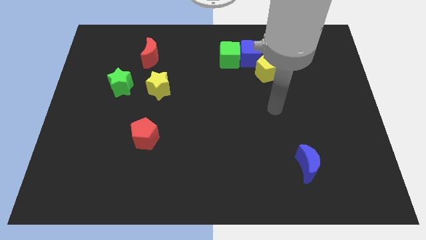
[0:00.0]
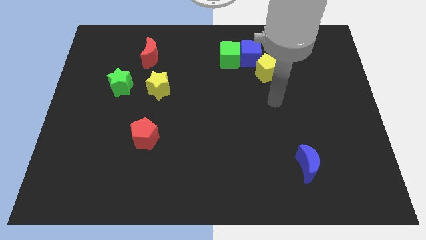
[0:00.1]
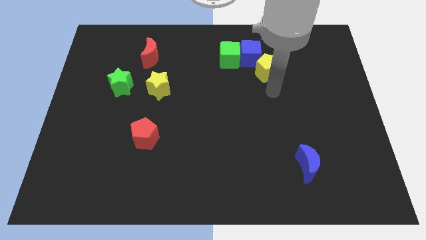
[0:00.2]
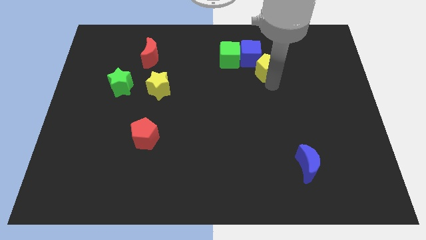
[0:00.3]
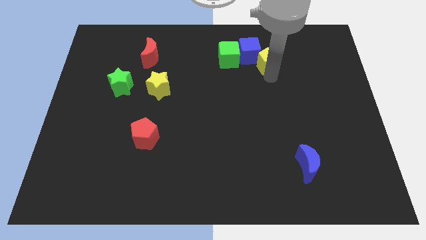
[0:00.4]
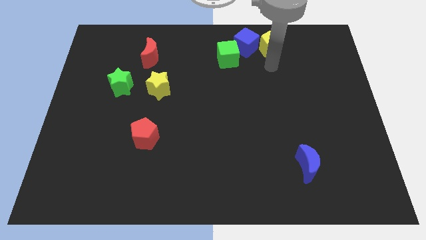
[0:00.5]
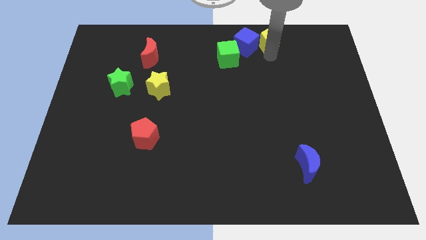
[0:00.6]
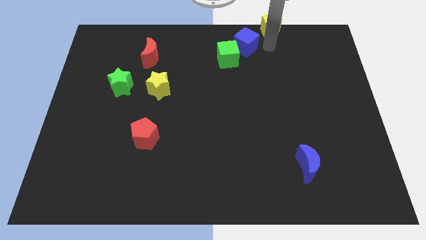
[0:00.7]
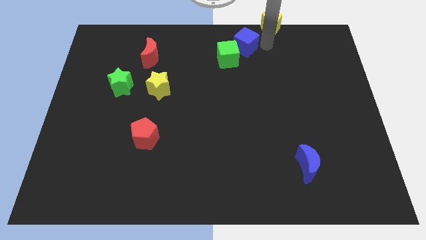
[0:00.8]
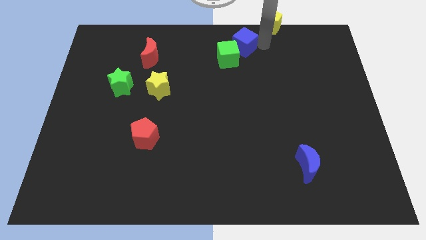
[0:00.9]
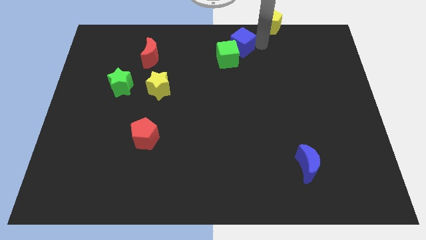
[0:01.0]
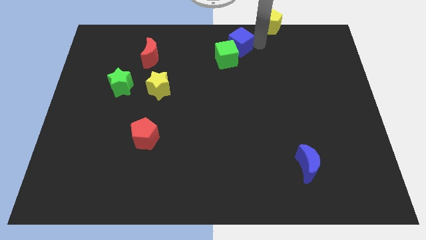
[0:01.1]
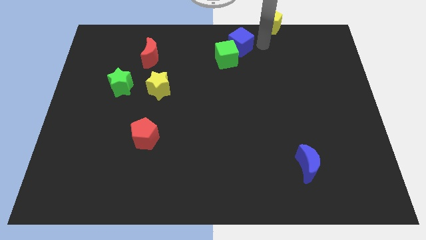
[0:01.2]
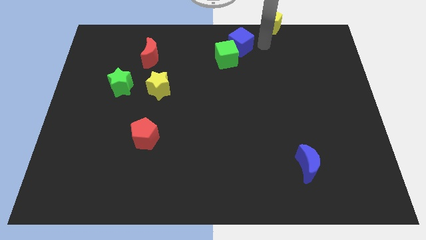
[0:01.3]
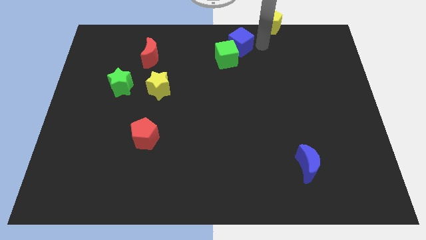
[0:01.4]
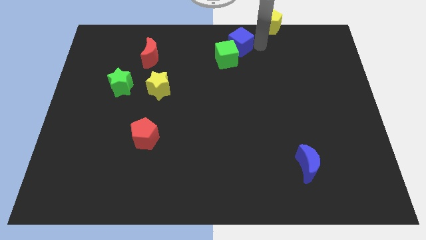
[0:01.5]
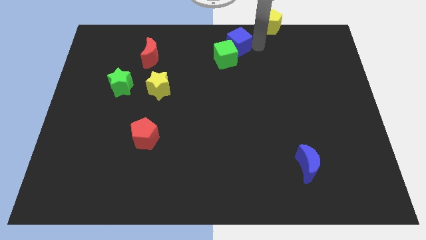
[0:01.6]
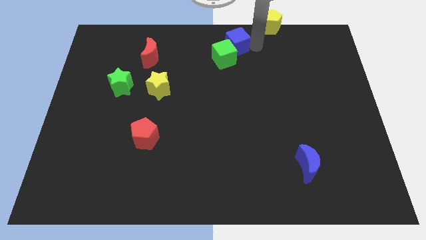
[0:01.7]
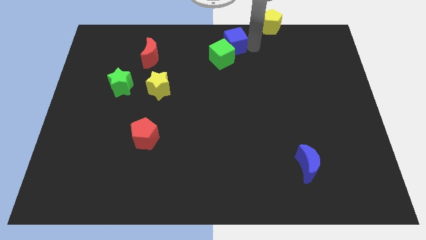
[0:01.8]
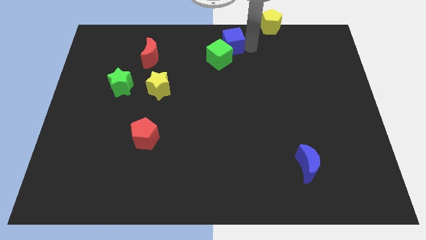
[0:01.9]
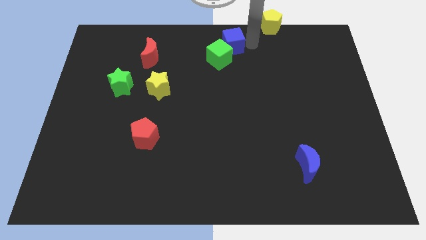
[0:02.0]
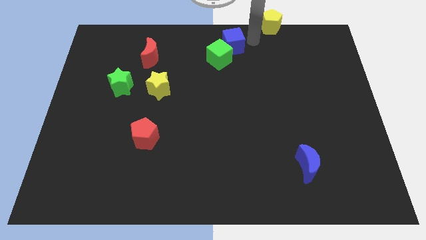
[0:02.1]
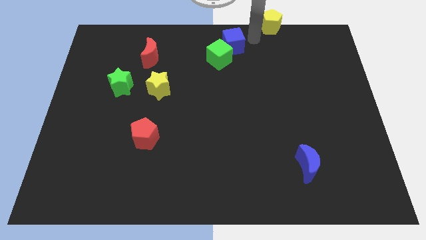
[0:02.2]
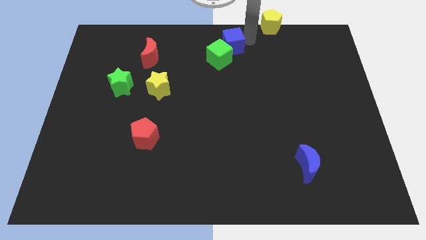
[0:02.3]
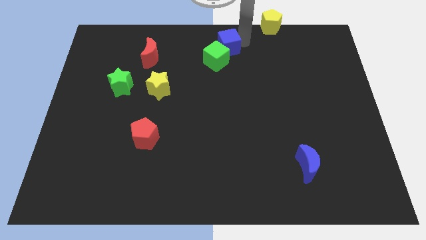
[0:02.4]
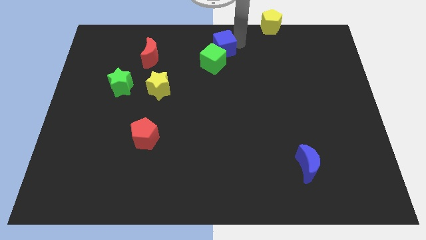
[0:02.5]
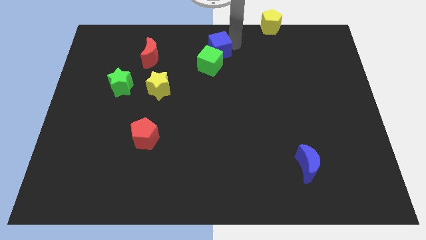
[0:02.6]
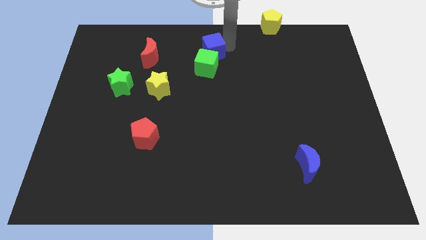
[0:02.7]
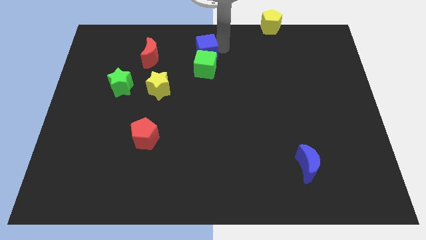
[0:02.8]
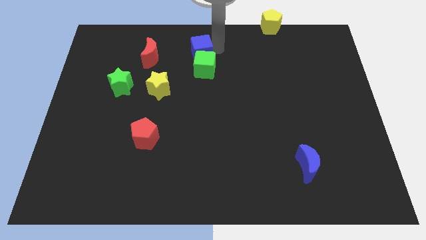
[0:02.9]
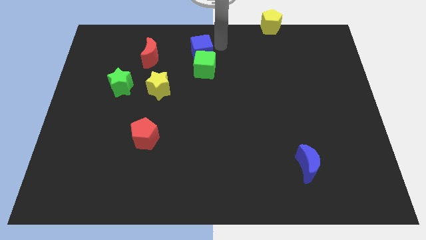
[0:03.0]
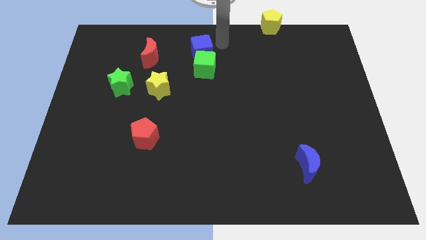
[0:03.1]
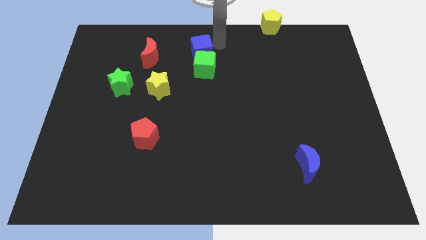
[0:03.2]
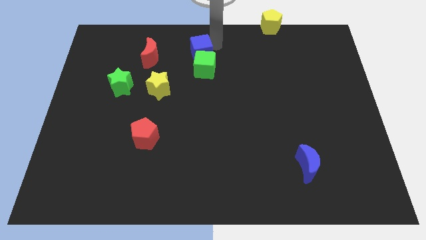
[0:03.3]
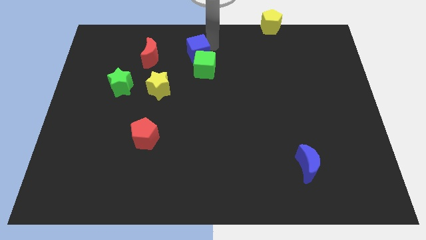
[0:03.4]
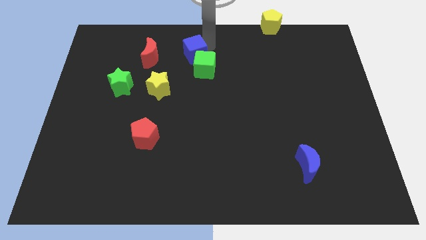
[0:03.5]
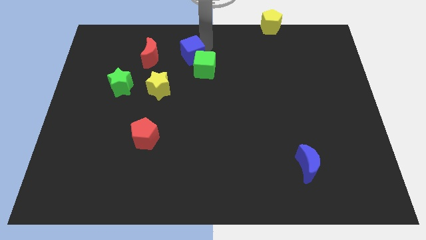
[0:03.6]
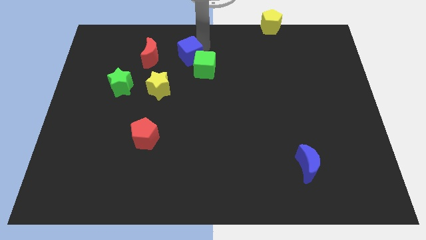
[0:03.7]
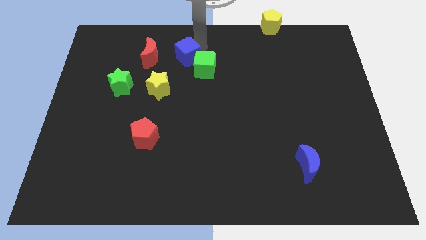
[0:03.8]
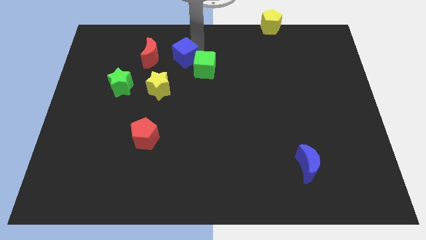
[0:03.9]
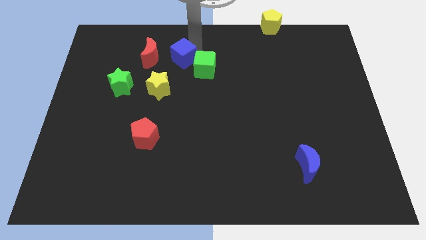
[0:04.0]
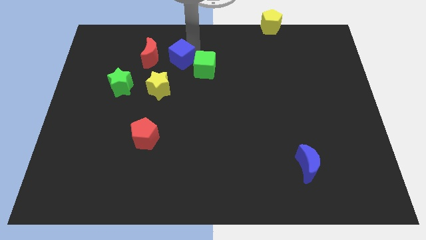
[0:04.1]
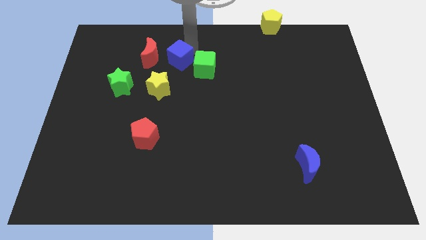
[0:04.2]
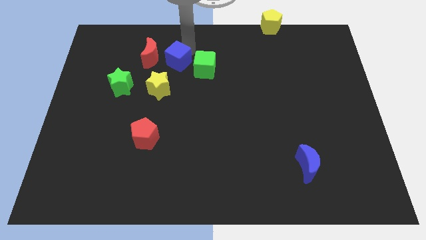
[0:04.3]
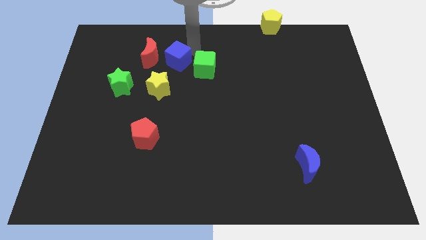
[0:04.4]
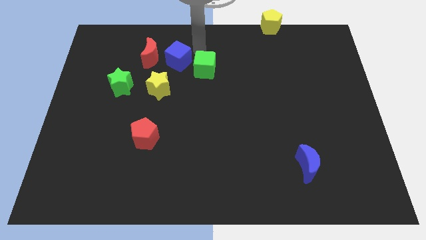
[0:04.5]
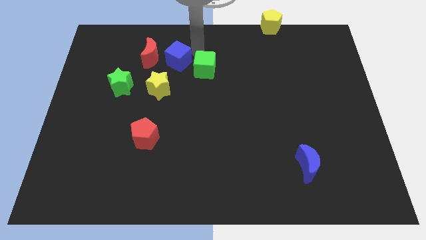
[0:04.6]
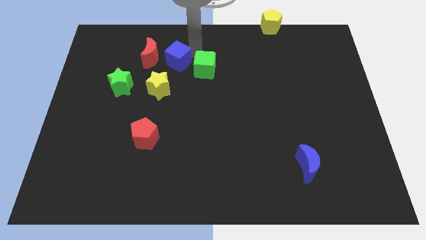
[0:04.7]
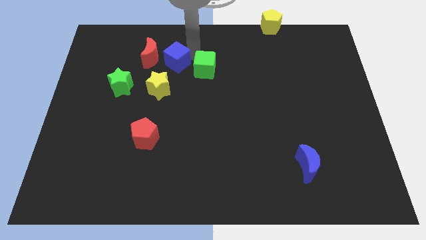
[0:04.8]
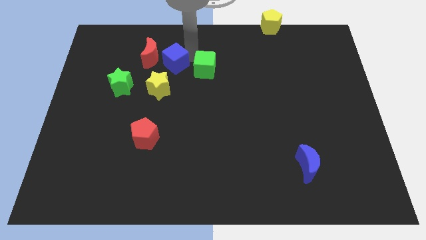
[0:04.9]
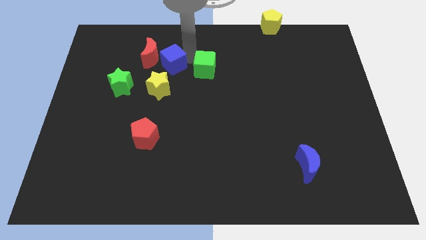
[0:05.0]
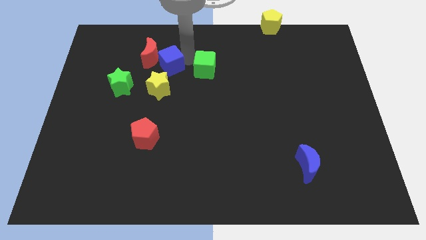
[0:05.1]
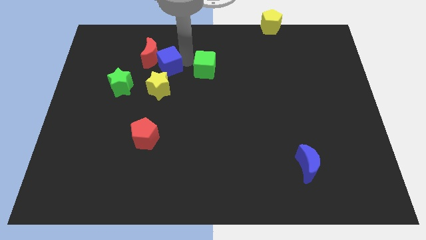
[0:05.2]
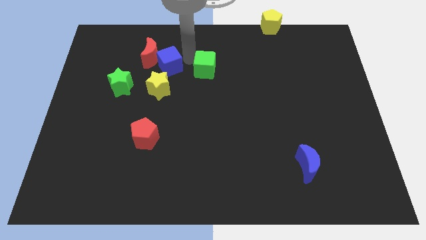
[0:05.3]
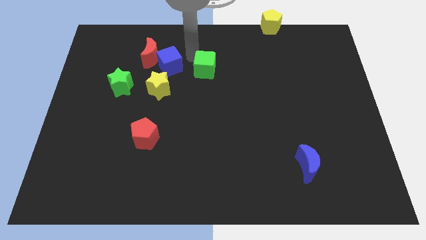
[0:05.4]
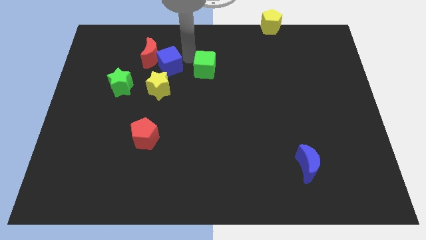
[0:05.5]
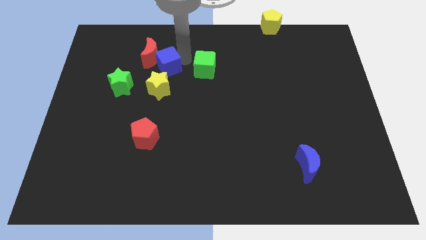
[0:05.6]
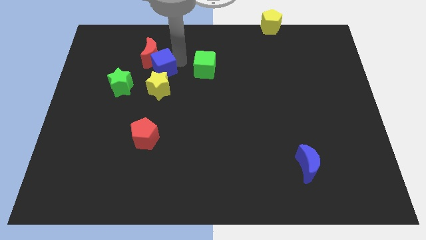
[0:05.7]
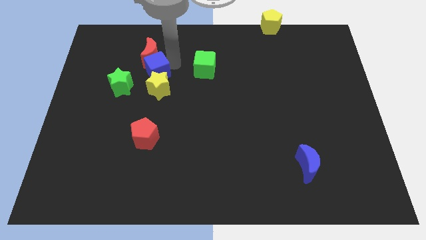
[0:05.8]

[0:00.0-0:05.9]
move the blue cube to the top left side of the yellow star

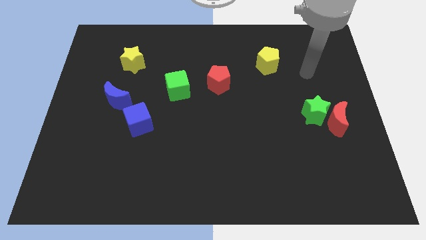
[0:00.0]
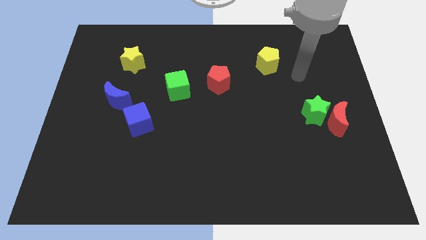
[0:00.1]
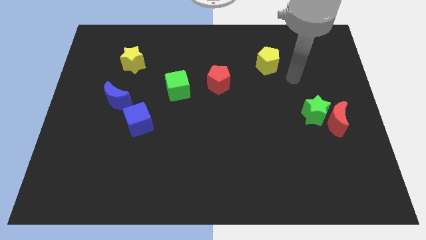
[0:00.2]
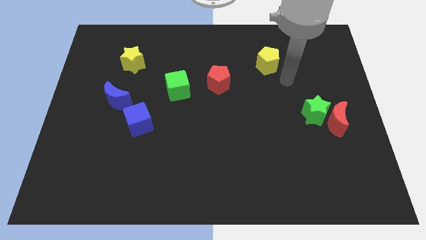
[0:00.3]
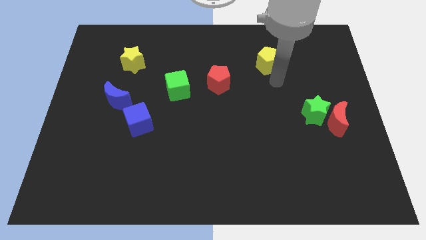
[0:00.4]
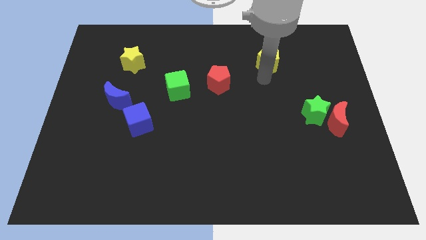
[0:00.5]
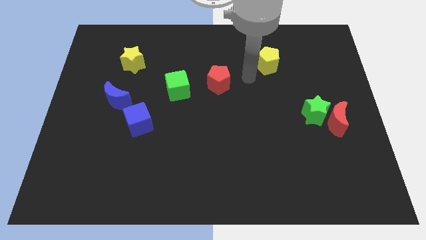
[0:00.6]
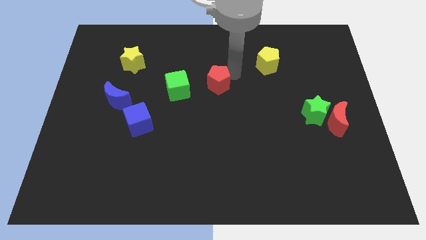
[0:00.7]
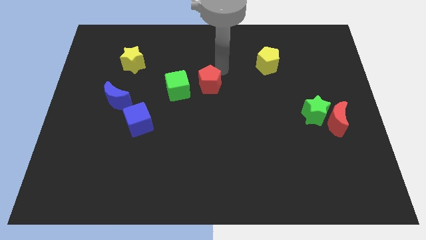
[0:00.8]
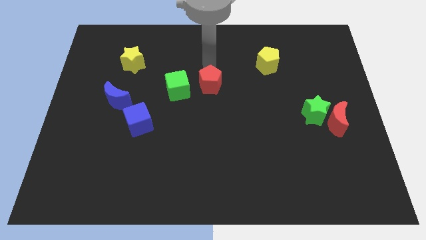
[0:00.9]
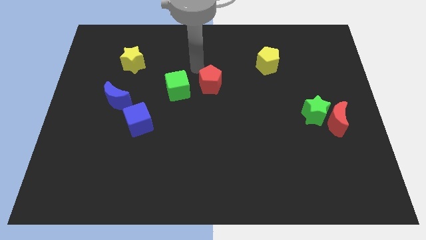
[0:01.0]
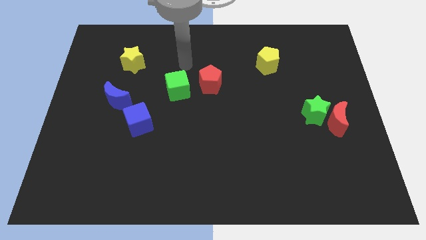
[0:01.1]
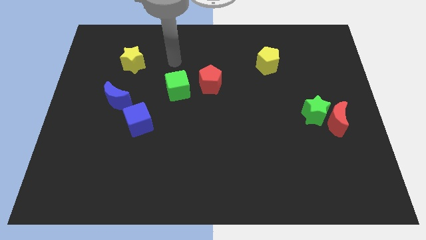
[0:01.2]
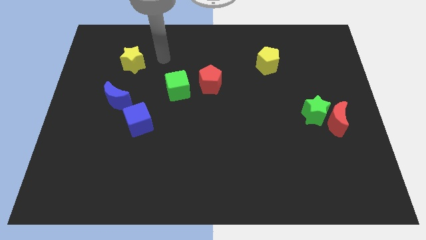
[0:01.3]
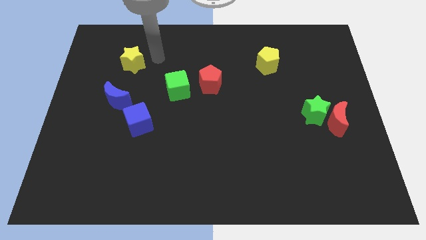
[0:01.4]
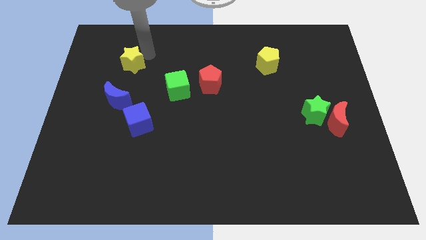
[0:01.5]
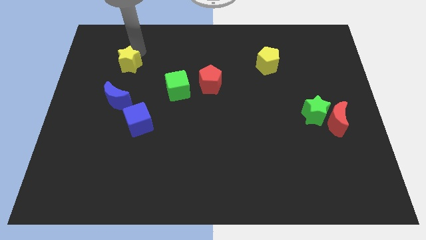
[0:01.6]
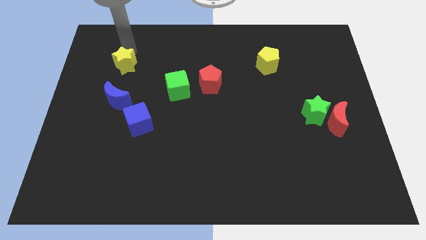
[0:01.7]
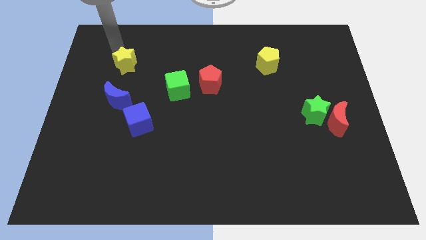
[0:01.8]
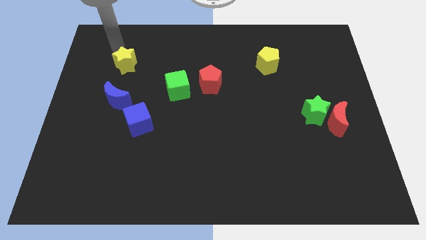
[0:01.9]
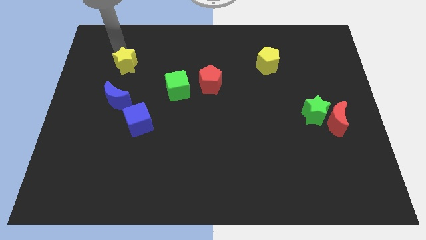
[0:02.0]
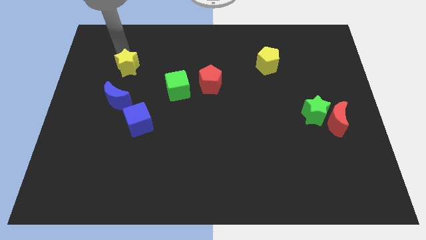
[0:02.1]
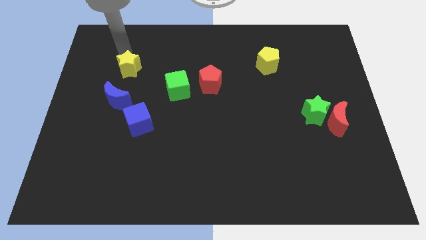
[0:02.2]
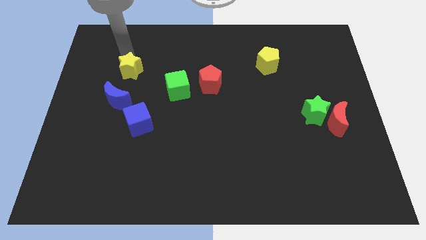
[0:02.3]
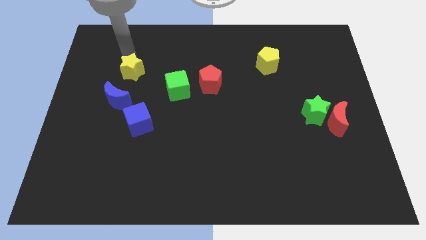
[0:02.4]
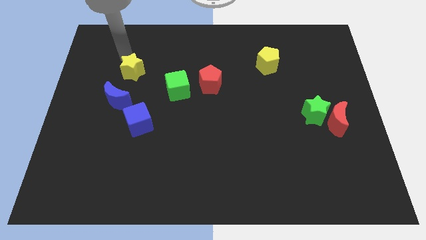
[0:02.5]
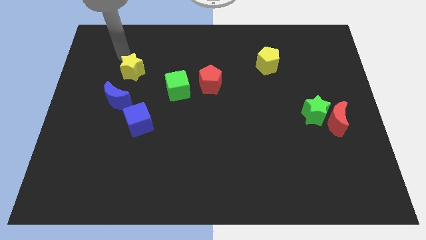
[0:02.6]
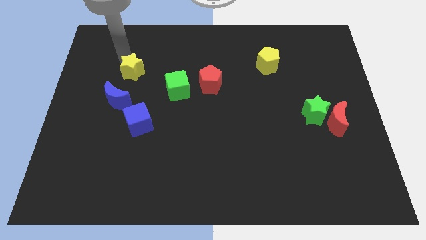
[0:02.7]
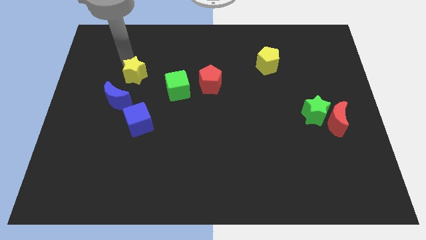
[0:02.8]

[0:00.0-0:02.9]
put the yellow star above the blue cube
